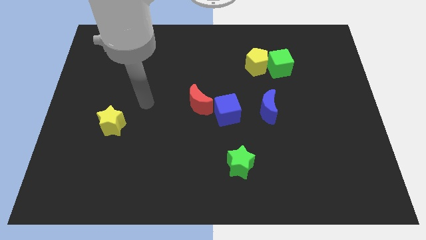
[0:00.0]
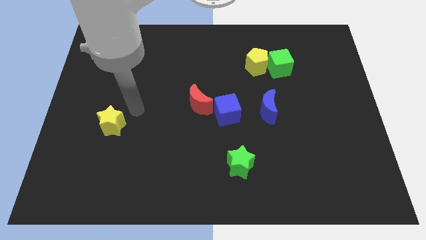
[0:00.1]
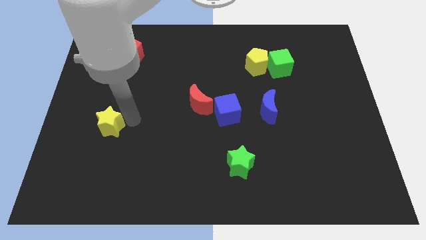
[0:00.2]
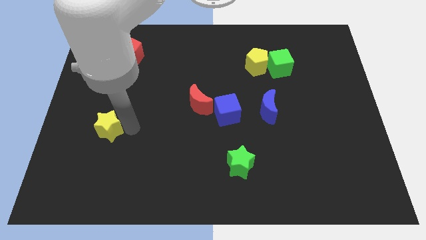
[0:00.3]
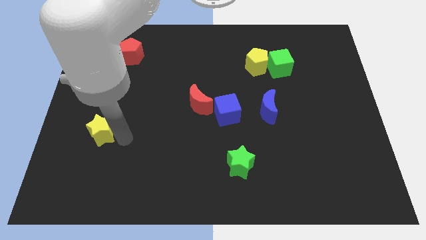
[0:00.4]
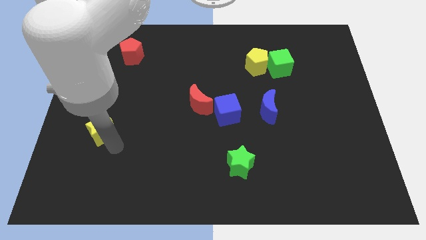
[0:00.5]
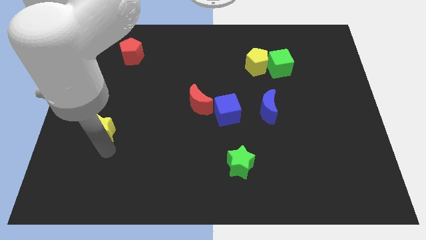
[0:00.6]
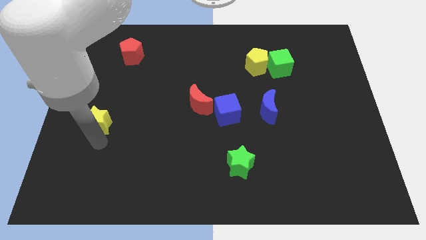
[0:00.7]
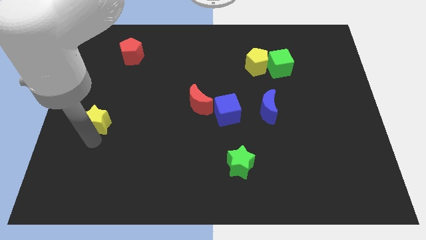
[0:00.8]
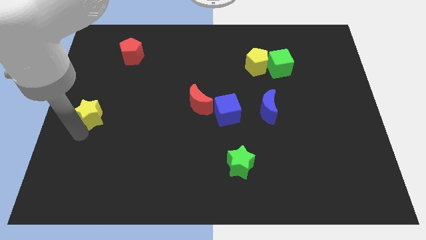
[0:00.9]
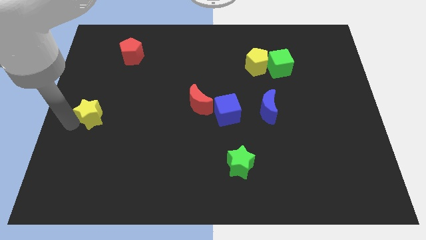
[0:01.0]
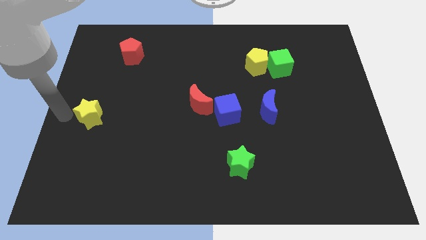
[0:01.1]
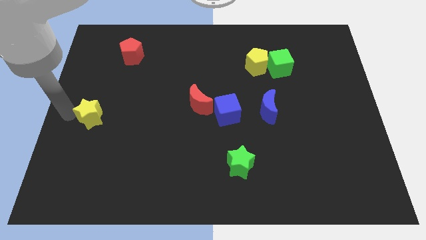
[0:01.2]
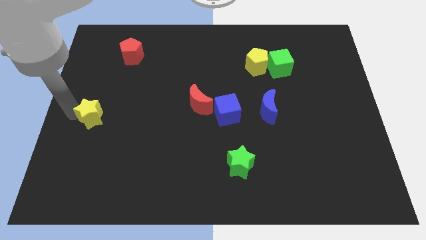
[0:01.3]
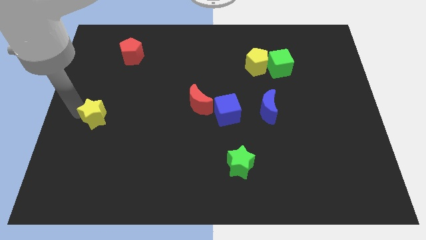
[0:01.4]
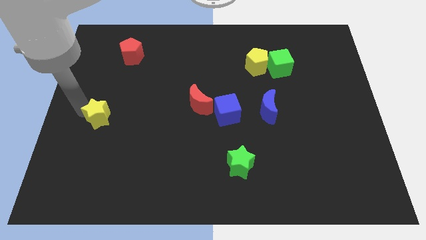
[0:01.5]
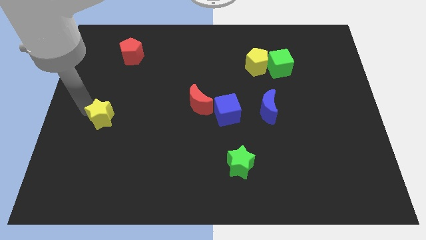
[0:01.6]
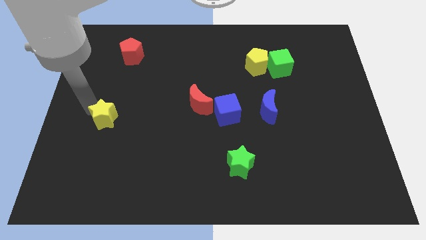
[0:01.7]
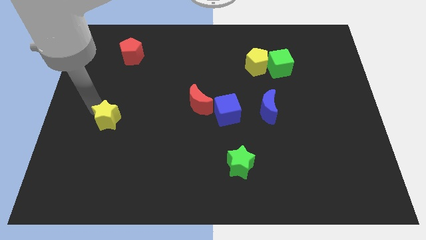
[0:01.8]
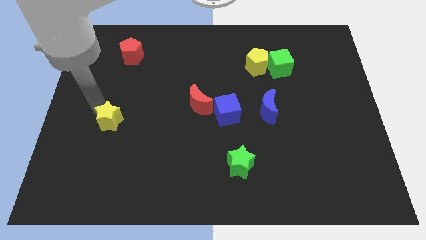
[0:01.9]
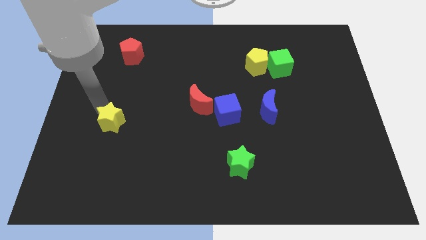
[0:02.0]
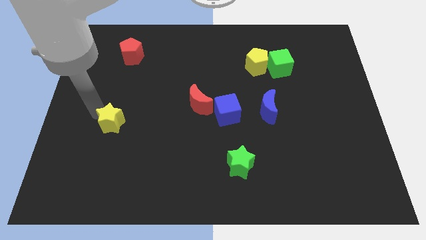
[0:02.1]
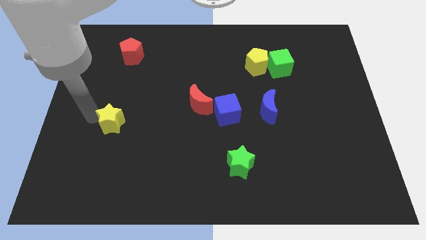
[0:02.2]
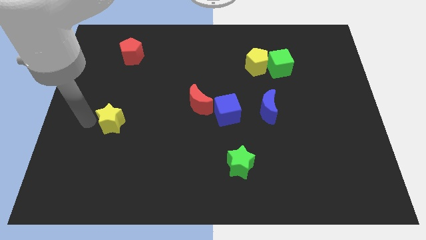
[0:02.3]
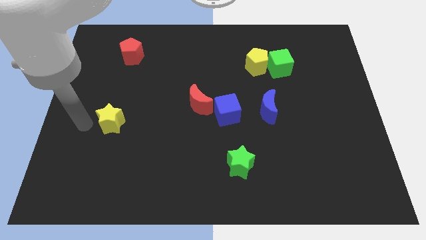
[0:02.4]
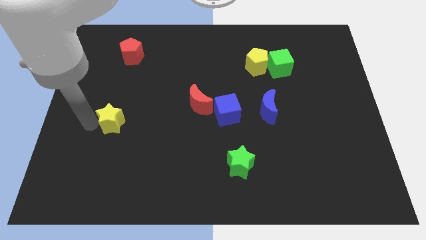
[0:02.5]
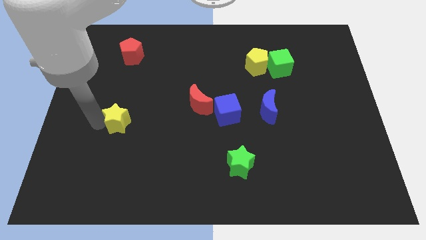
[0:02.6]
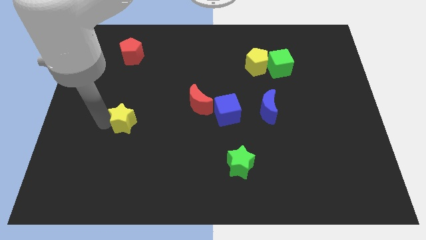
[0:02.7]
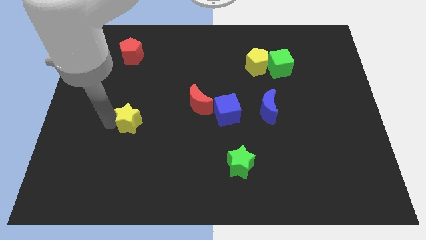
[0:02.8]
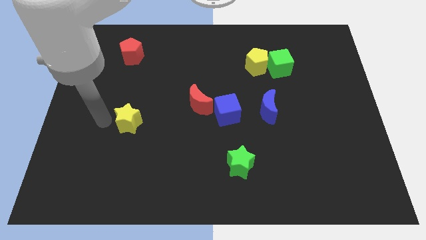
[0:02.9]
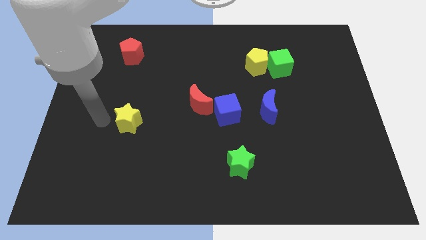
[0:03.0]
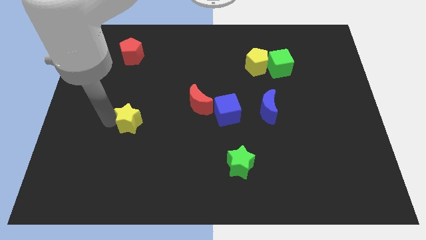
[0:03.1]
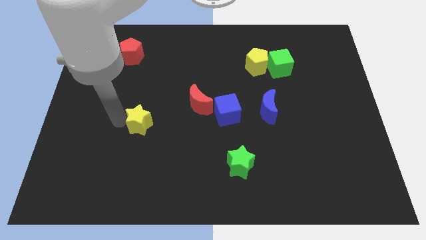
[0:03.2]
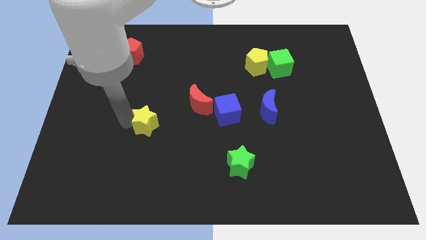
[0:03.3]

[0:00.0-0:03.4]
move the yellow star a bit to the right

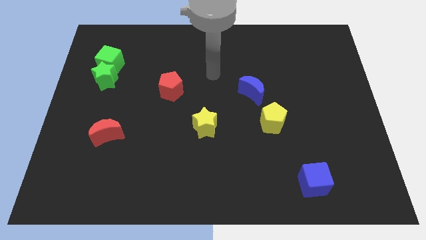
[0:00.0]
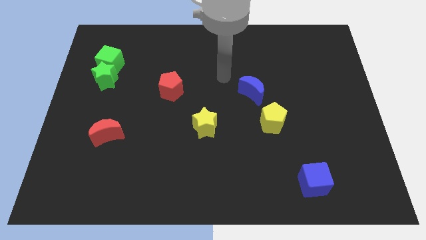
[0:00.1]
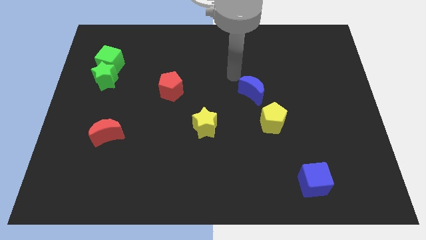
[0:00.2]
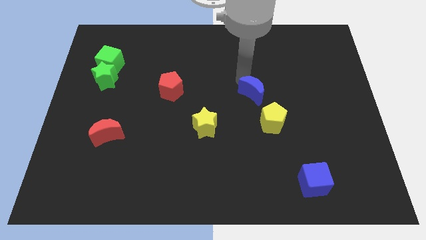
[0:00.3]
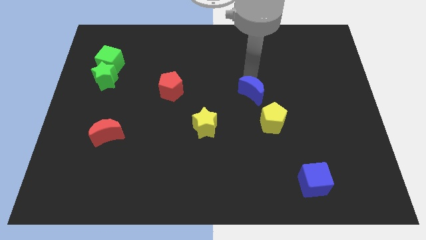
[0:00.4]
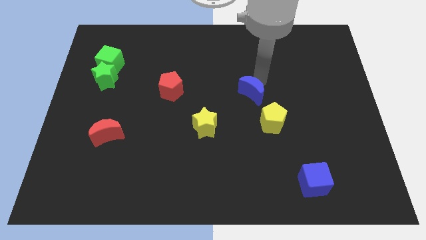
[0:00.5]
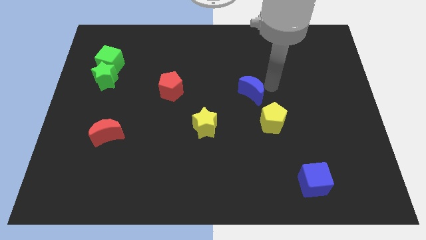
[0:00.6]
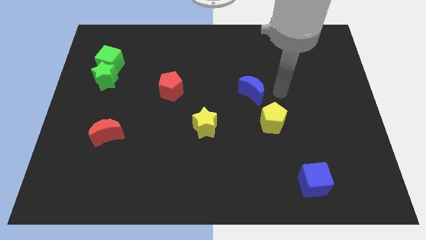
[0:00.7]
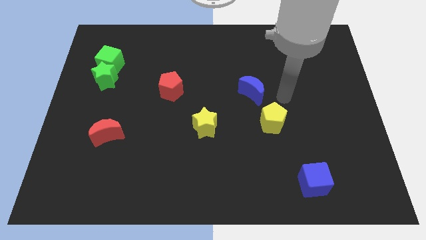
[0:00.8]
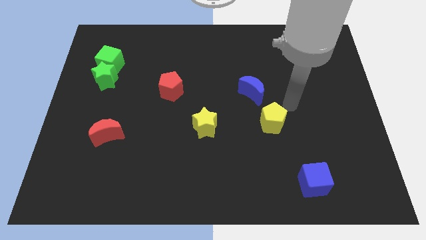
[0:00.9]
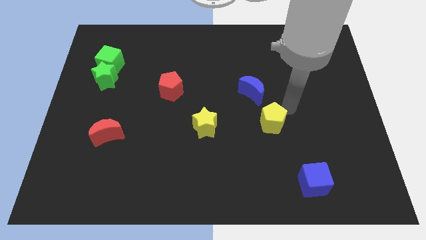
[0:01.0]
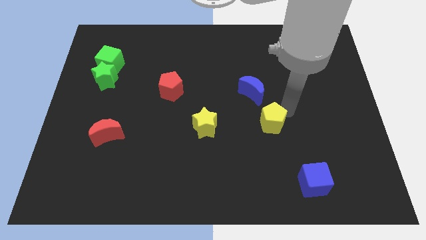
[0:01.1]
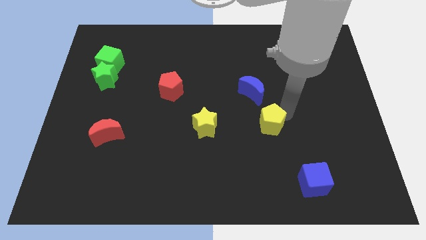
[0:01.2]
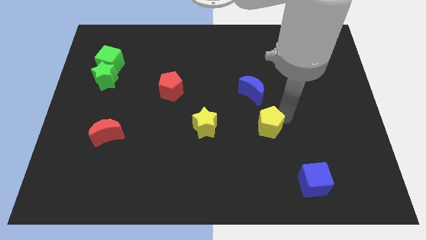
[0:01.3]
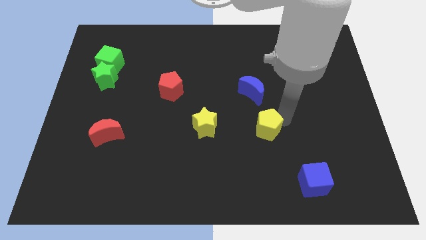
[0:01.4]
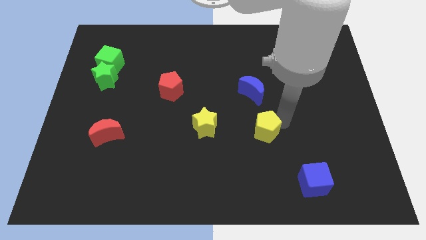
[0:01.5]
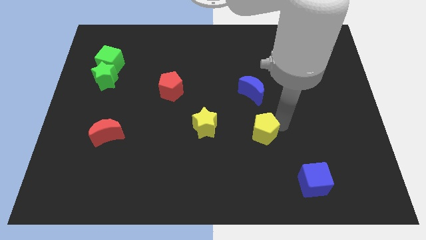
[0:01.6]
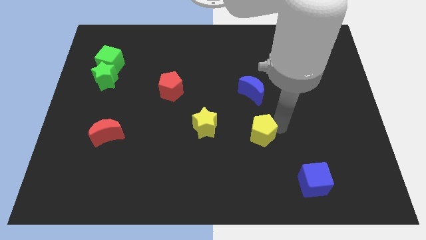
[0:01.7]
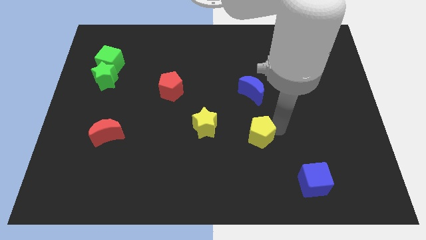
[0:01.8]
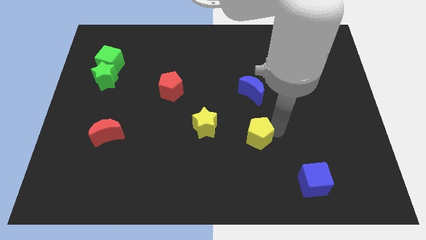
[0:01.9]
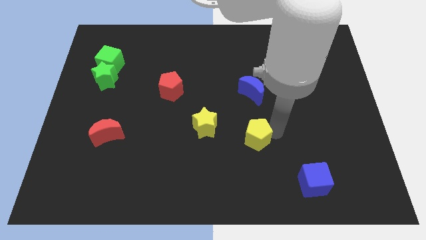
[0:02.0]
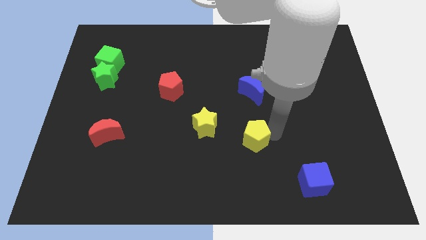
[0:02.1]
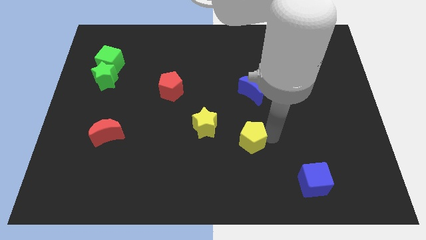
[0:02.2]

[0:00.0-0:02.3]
push the yellow pentagon diagonally downwards and left slightly

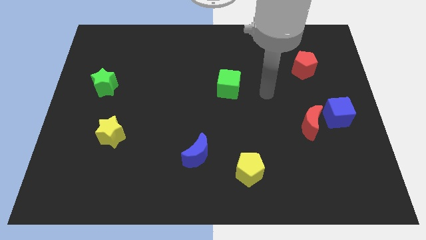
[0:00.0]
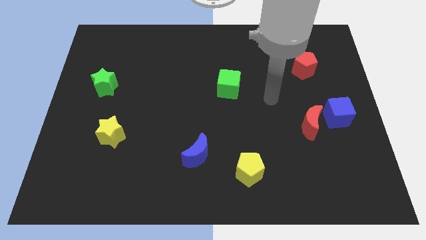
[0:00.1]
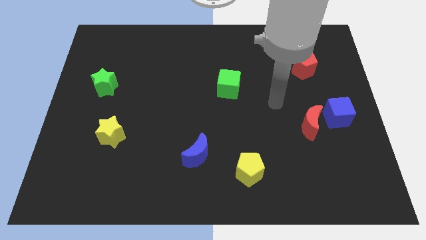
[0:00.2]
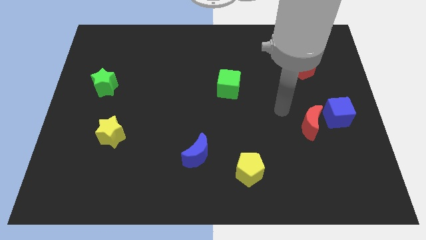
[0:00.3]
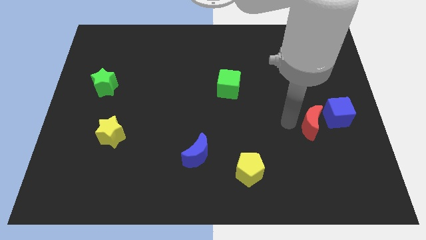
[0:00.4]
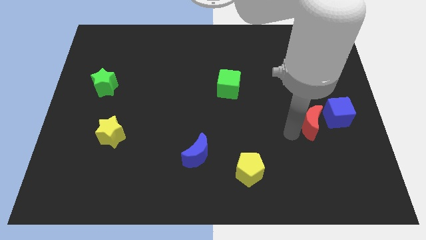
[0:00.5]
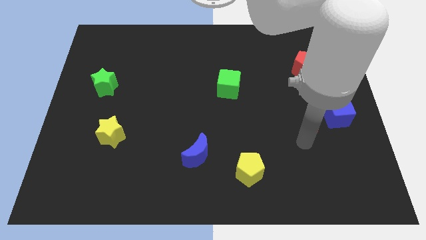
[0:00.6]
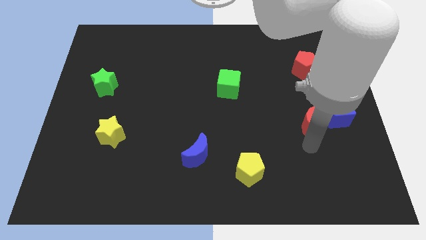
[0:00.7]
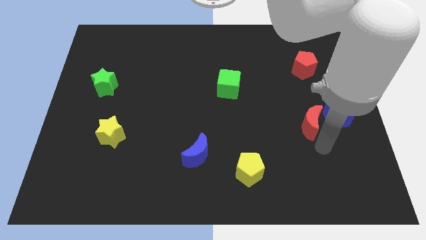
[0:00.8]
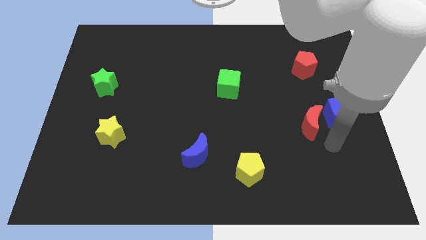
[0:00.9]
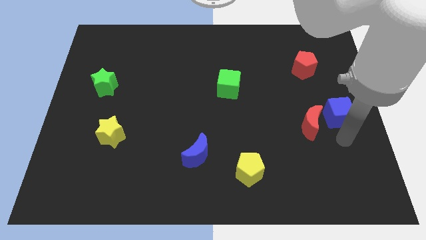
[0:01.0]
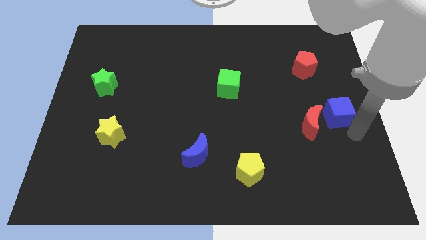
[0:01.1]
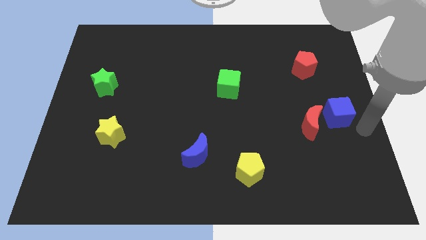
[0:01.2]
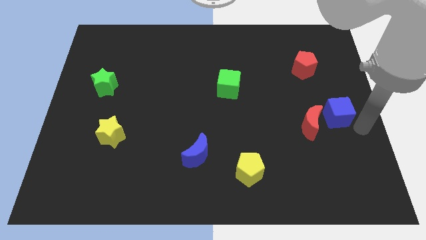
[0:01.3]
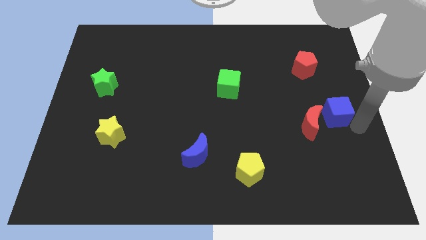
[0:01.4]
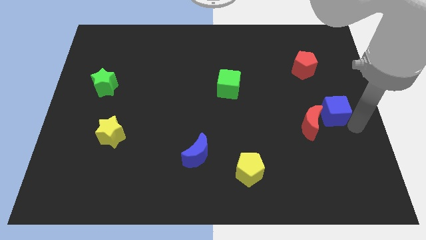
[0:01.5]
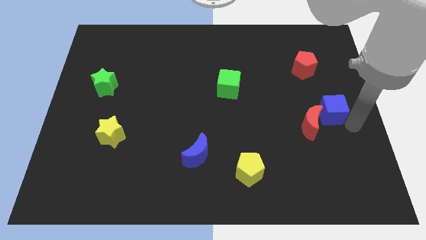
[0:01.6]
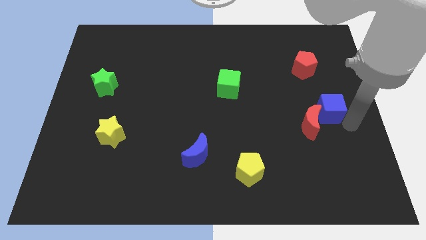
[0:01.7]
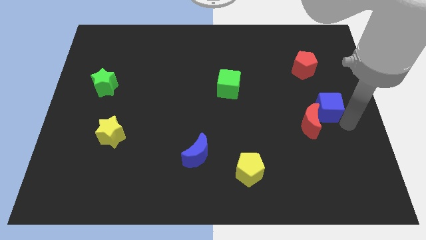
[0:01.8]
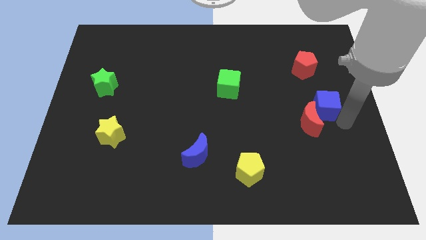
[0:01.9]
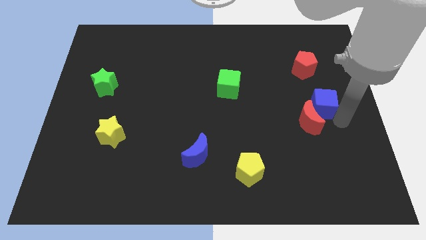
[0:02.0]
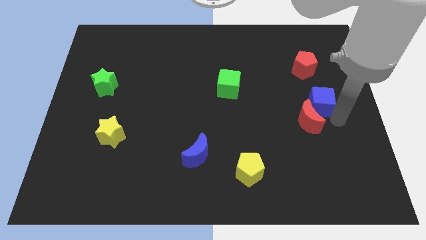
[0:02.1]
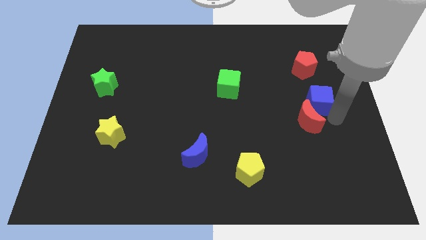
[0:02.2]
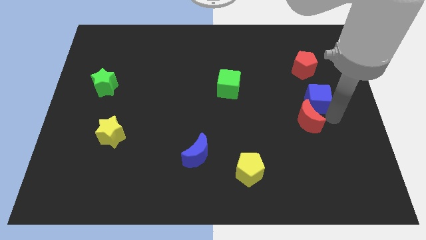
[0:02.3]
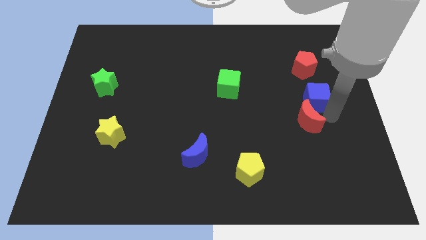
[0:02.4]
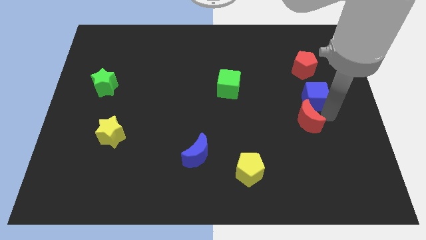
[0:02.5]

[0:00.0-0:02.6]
slide the blue cube a little upwards and then left

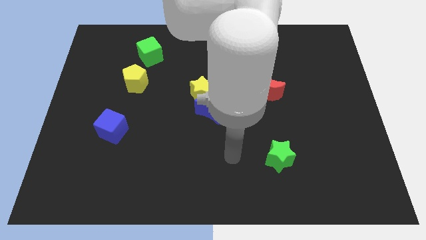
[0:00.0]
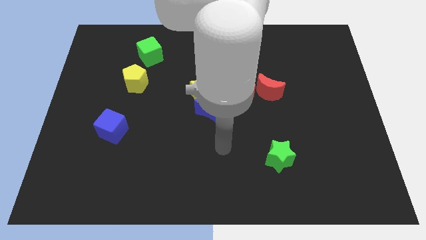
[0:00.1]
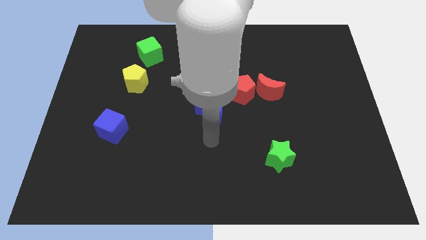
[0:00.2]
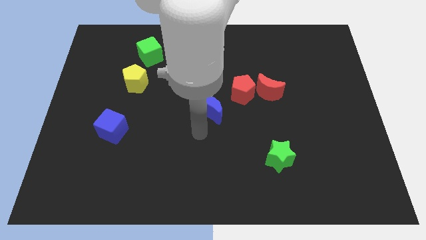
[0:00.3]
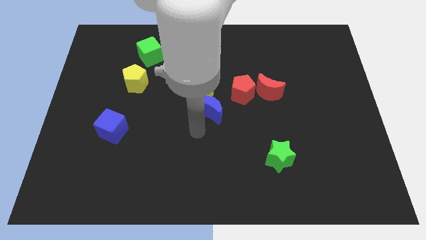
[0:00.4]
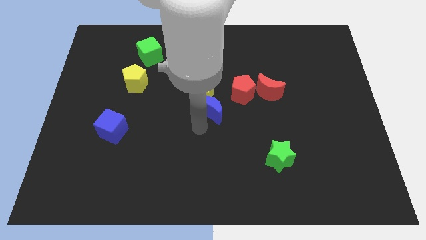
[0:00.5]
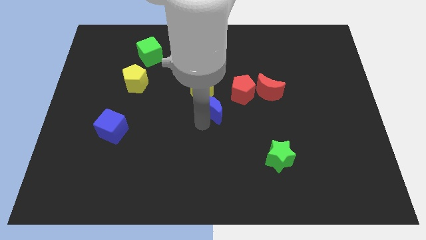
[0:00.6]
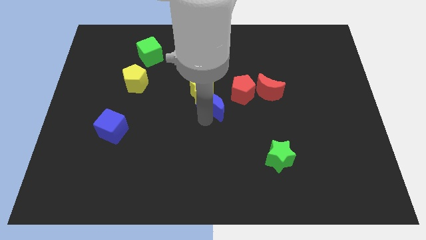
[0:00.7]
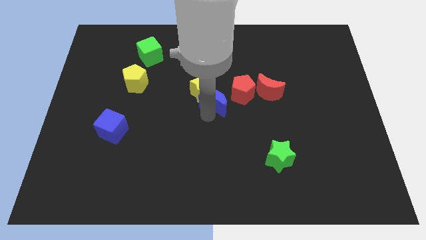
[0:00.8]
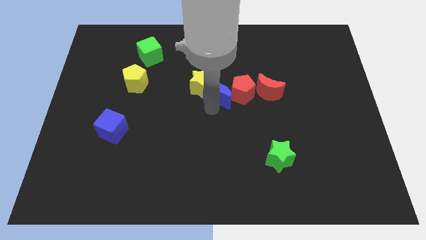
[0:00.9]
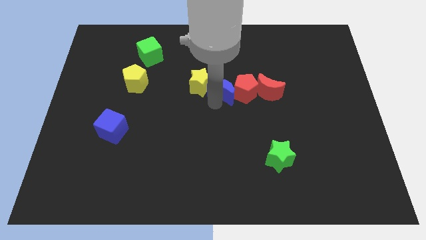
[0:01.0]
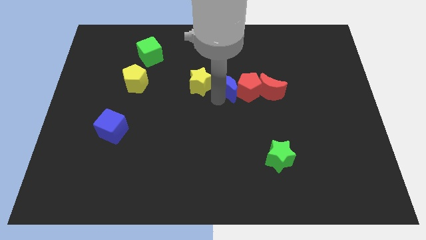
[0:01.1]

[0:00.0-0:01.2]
push the blue moon somewhat up and right
